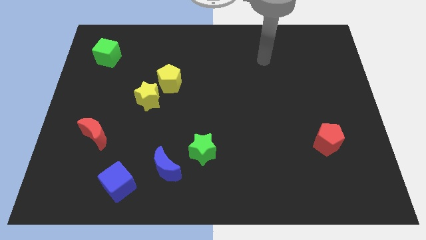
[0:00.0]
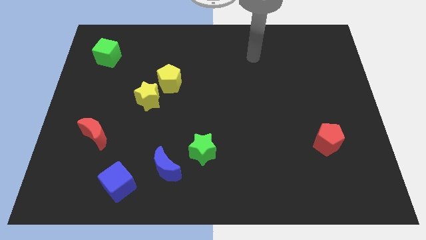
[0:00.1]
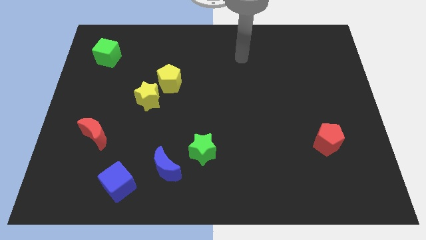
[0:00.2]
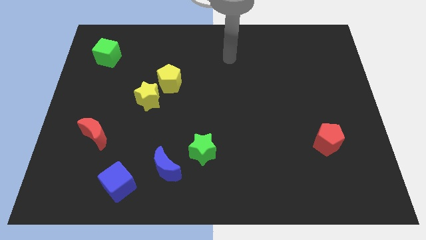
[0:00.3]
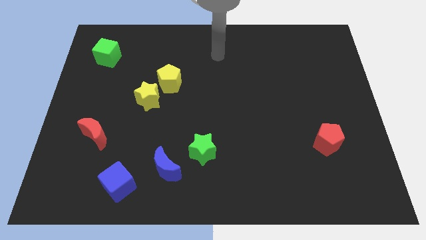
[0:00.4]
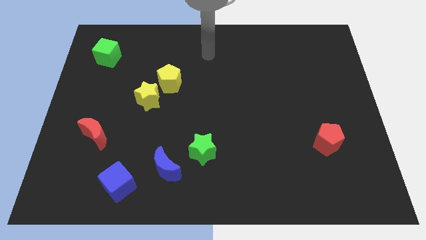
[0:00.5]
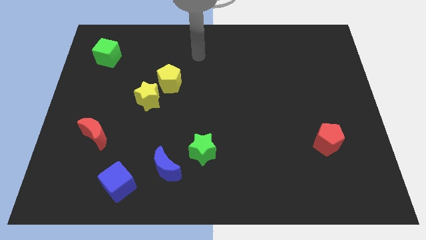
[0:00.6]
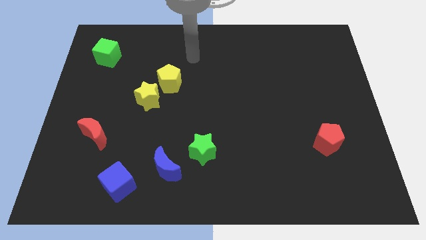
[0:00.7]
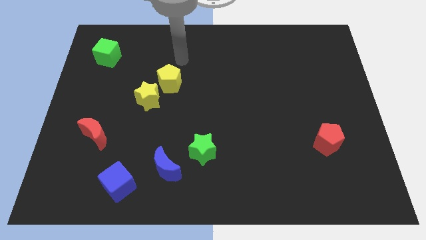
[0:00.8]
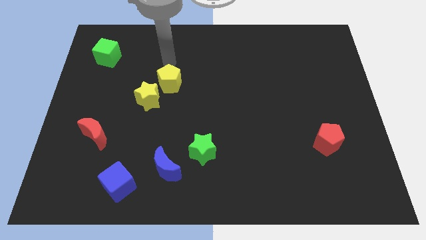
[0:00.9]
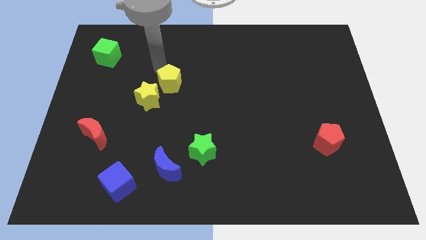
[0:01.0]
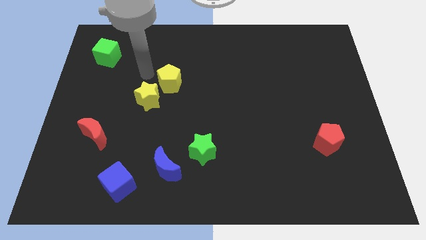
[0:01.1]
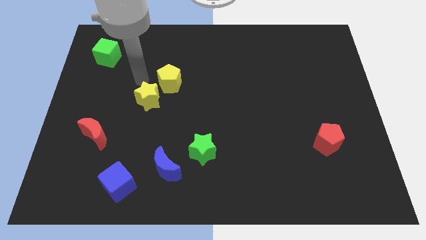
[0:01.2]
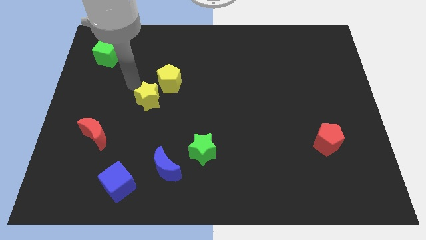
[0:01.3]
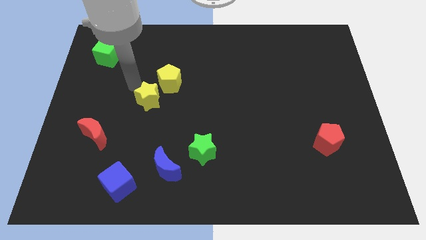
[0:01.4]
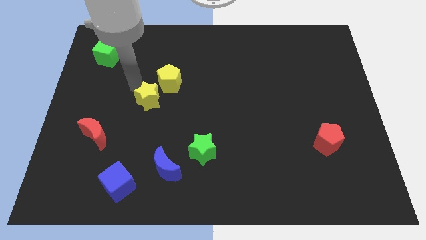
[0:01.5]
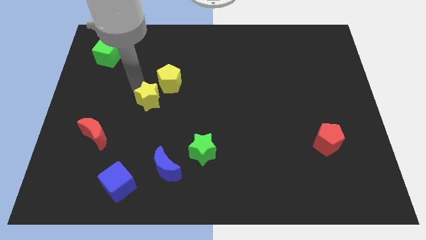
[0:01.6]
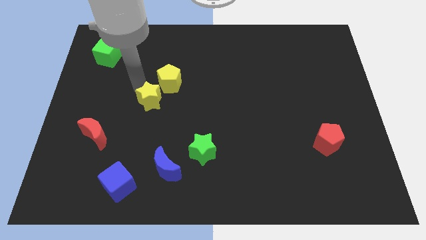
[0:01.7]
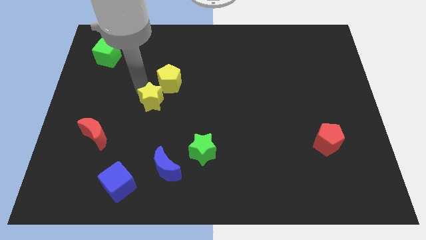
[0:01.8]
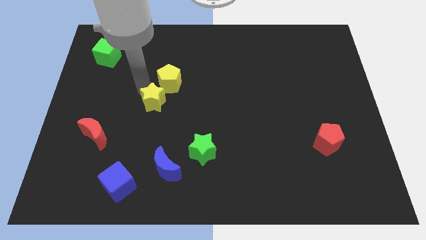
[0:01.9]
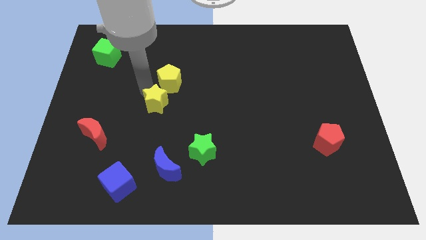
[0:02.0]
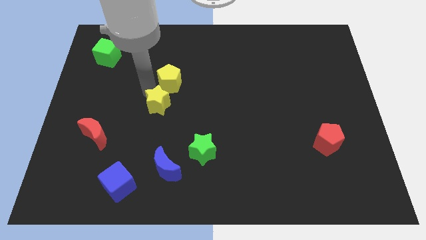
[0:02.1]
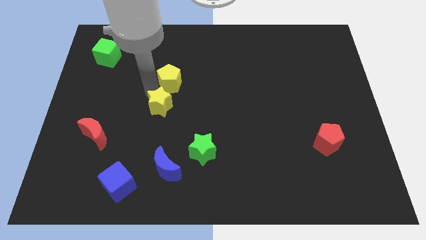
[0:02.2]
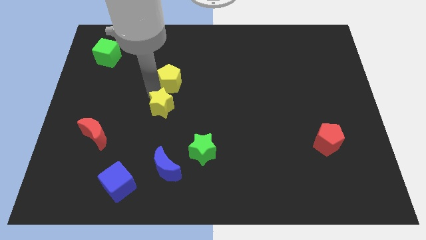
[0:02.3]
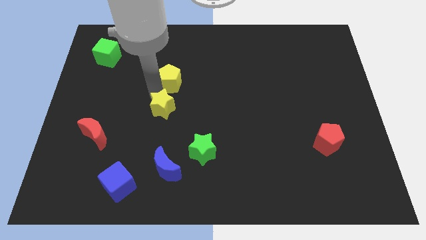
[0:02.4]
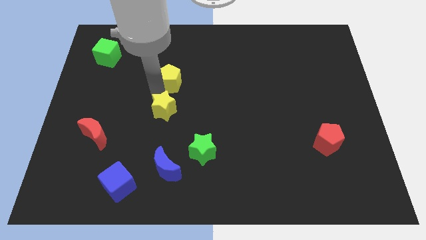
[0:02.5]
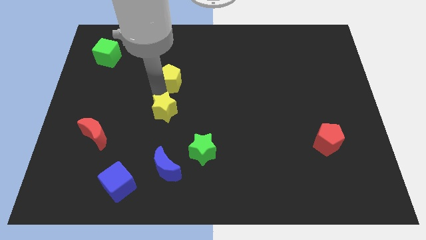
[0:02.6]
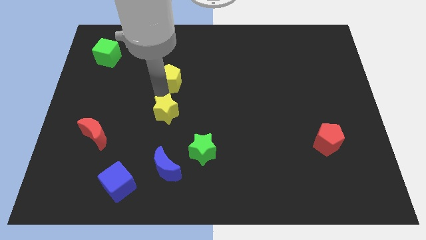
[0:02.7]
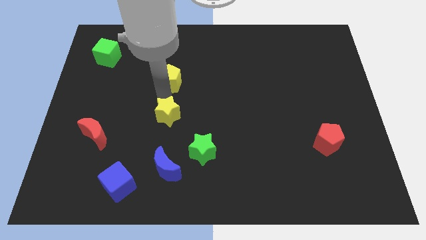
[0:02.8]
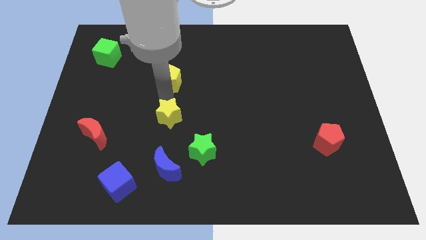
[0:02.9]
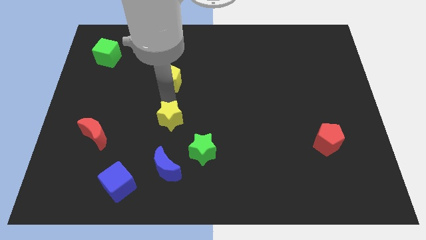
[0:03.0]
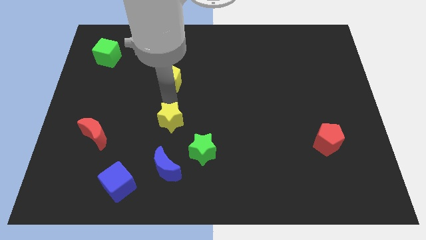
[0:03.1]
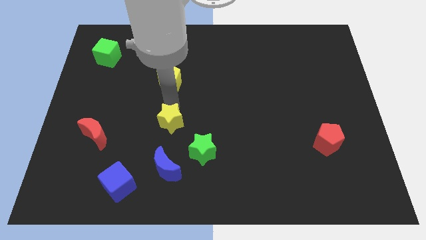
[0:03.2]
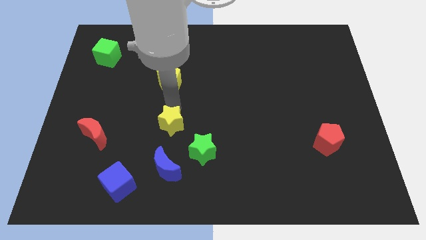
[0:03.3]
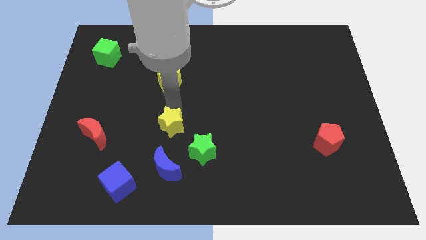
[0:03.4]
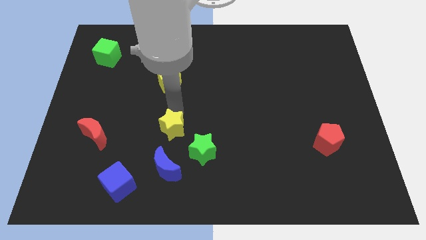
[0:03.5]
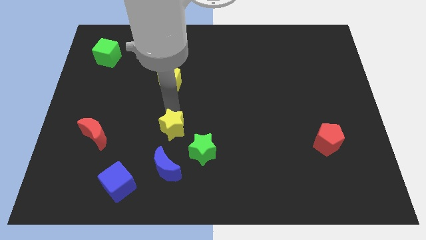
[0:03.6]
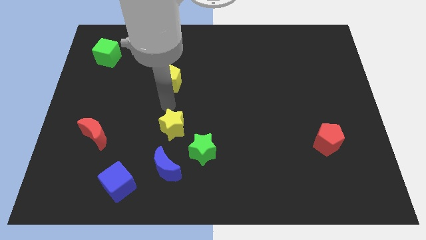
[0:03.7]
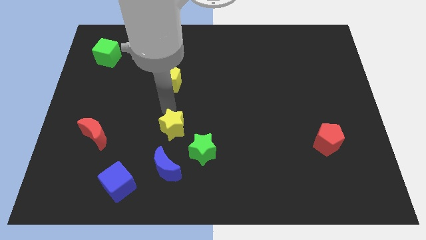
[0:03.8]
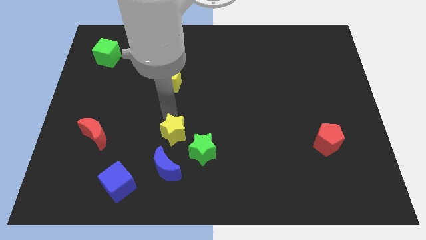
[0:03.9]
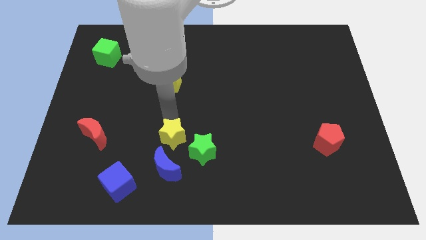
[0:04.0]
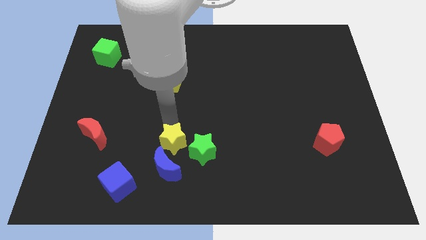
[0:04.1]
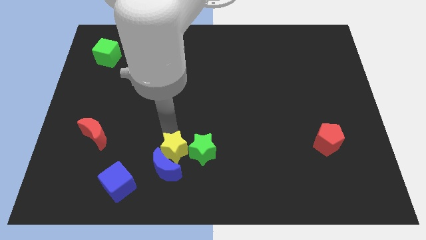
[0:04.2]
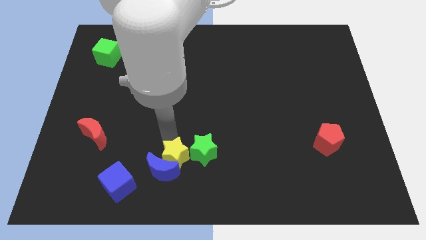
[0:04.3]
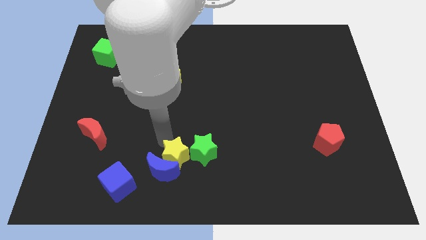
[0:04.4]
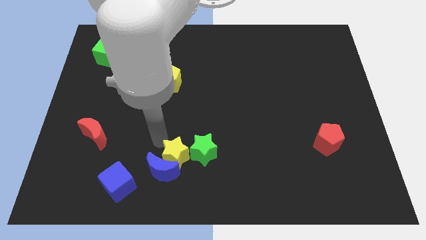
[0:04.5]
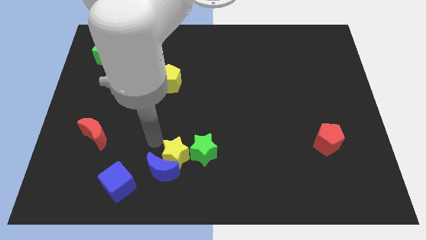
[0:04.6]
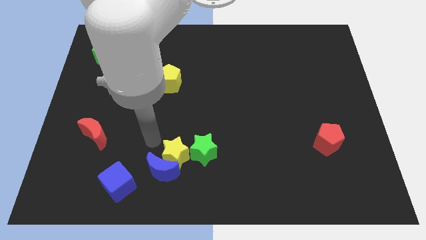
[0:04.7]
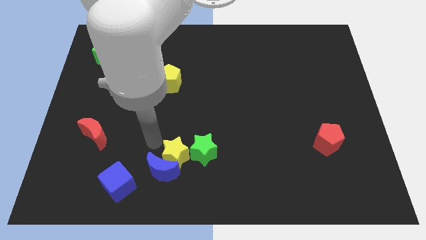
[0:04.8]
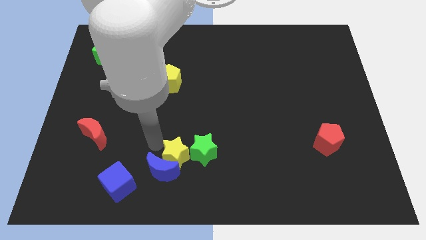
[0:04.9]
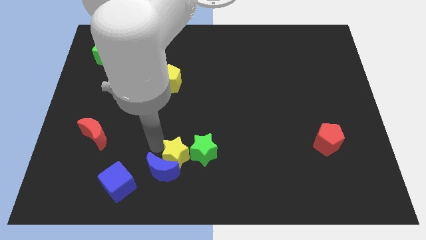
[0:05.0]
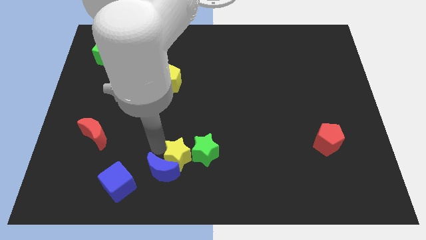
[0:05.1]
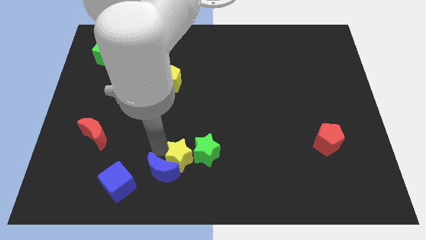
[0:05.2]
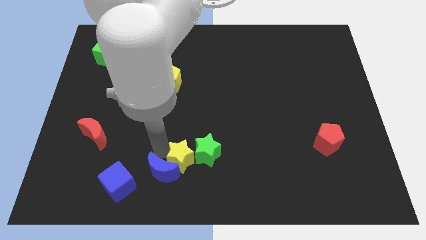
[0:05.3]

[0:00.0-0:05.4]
move the yellow star to the bottom

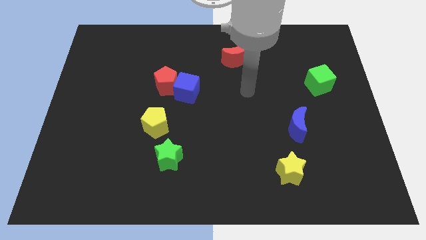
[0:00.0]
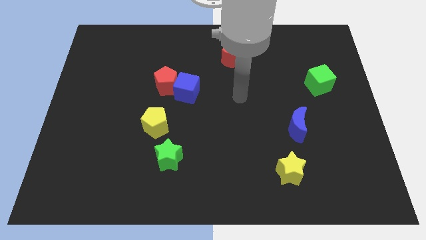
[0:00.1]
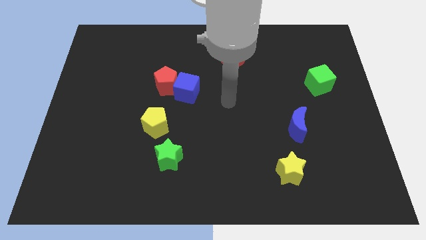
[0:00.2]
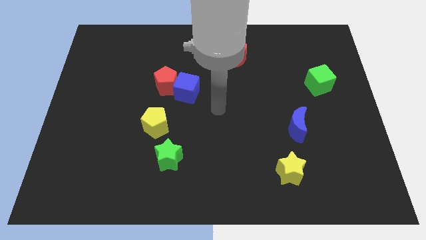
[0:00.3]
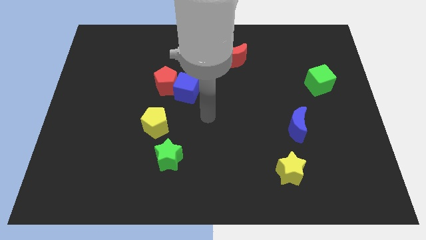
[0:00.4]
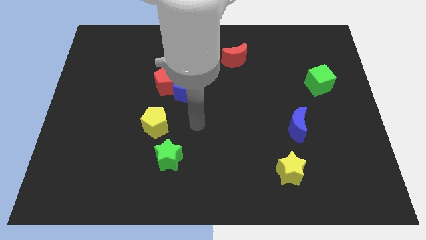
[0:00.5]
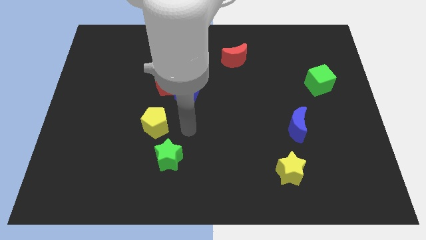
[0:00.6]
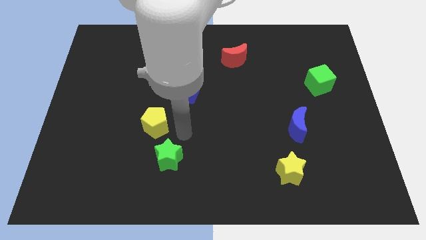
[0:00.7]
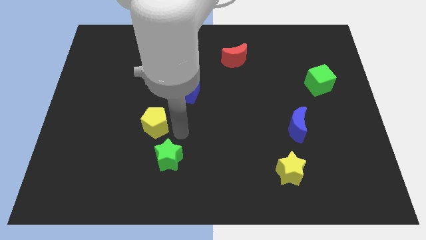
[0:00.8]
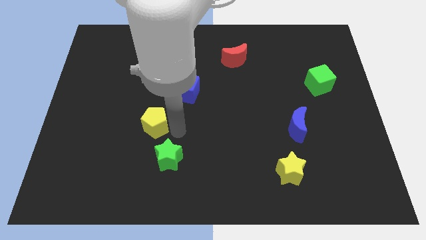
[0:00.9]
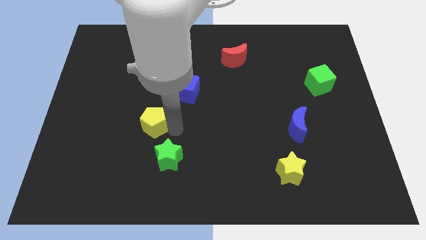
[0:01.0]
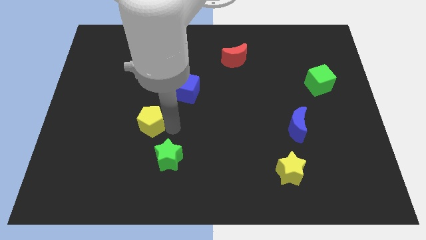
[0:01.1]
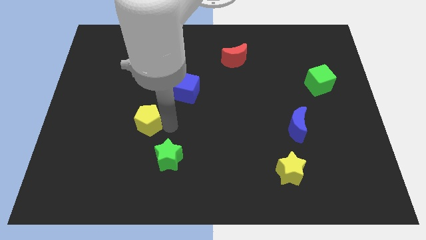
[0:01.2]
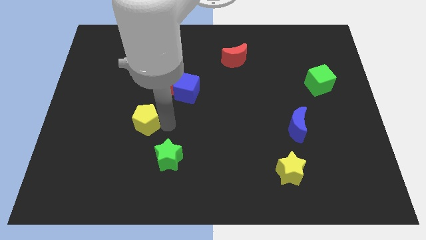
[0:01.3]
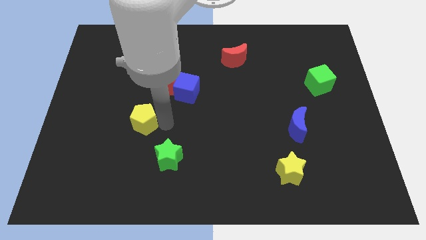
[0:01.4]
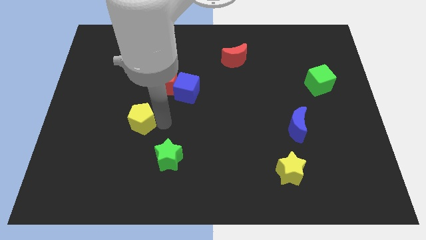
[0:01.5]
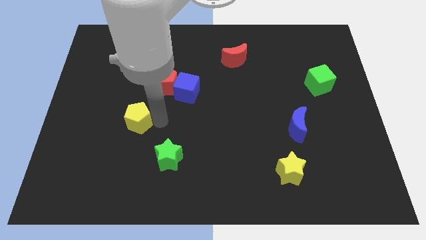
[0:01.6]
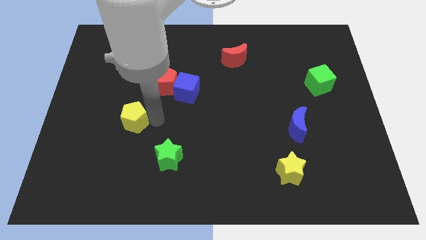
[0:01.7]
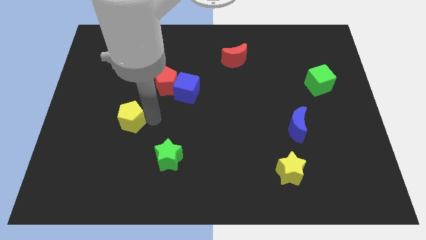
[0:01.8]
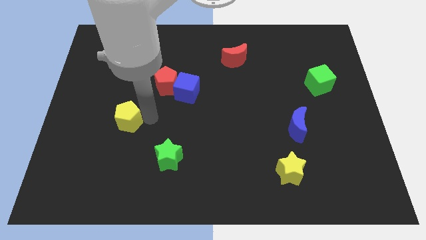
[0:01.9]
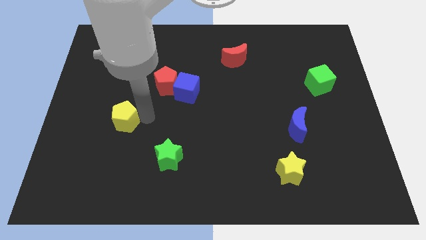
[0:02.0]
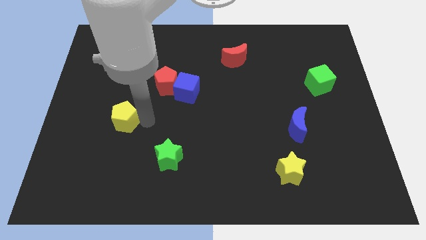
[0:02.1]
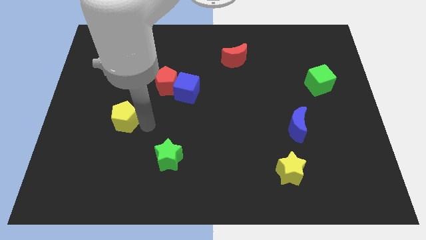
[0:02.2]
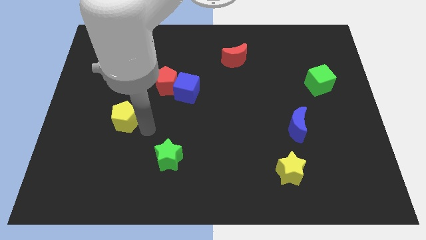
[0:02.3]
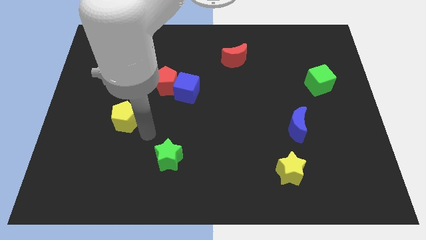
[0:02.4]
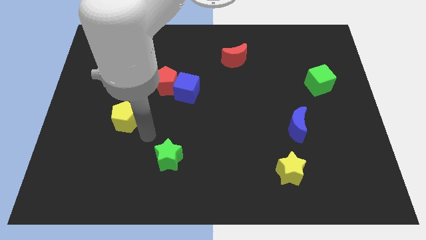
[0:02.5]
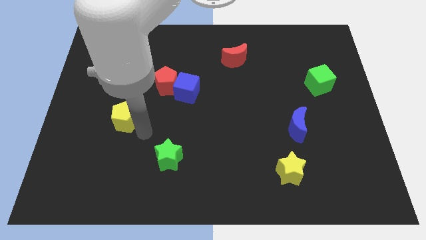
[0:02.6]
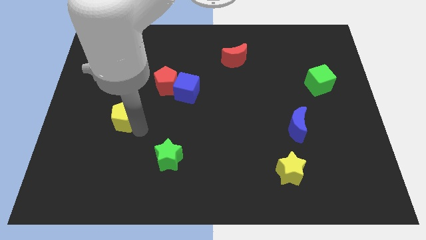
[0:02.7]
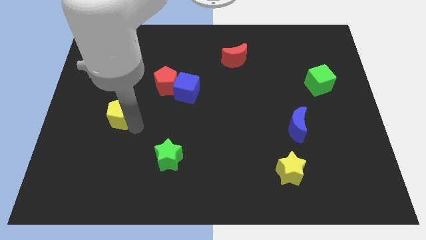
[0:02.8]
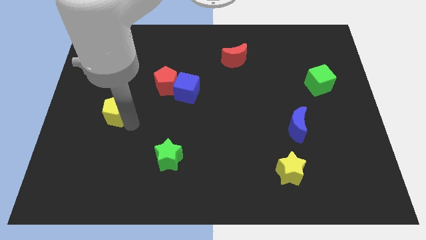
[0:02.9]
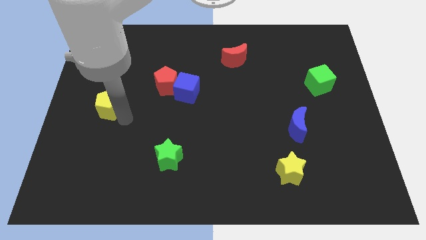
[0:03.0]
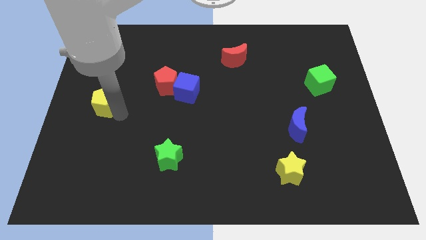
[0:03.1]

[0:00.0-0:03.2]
slide the yellow pentagon to the left side of the board
